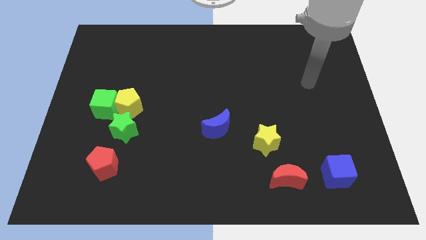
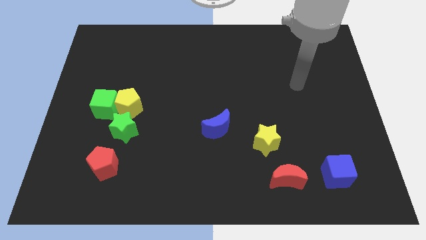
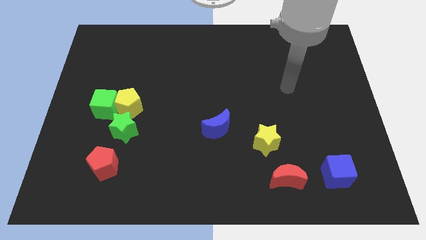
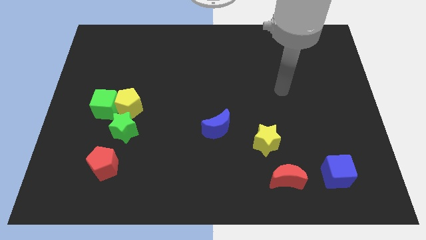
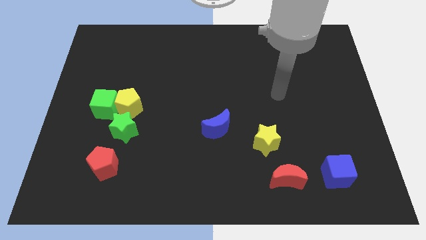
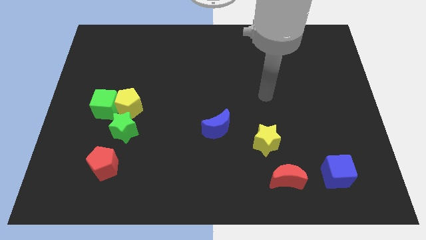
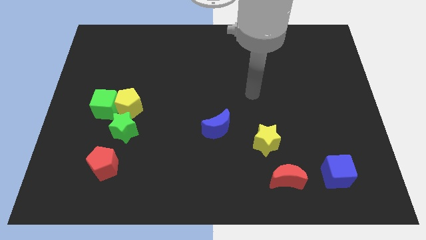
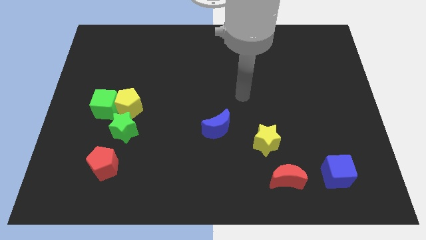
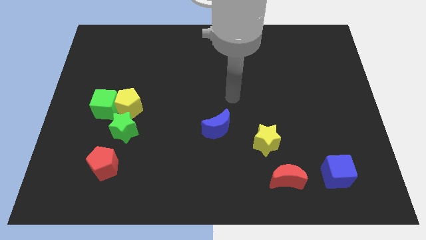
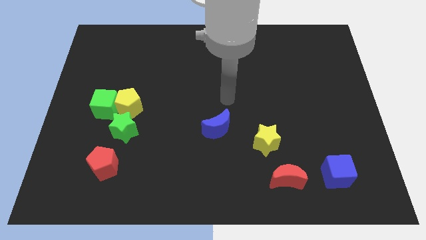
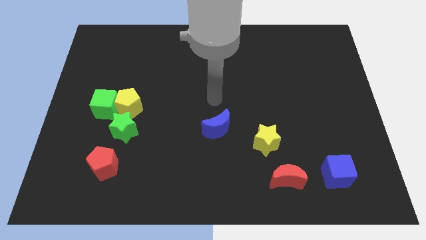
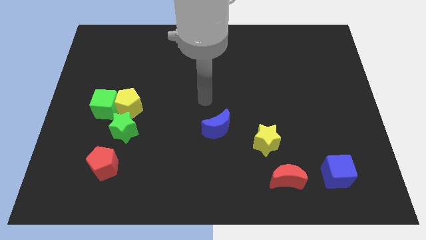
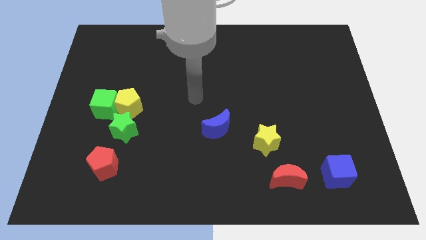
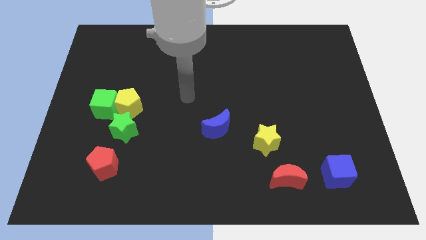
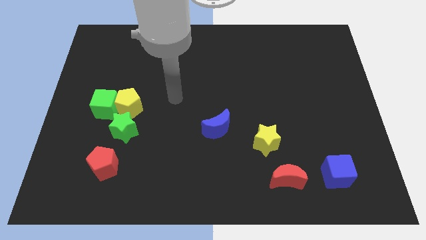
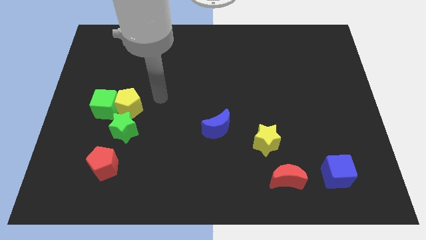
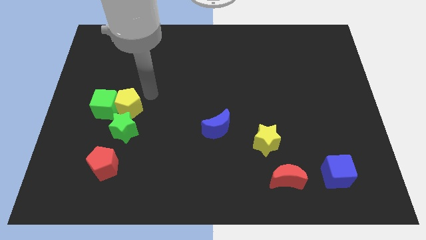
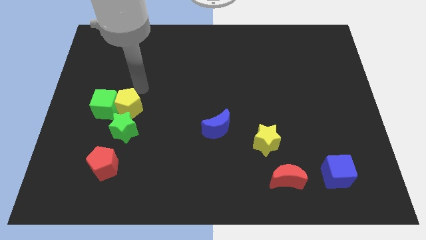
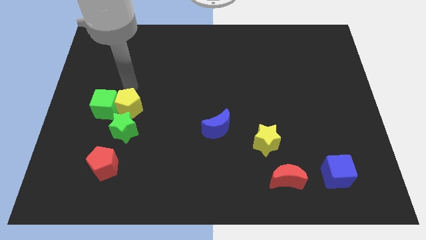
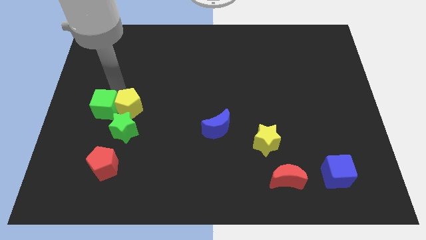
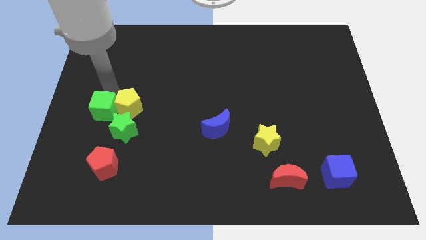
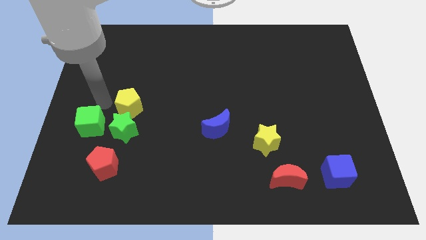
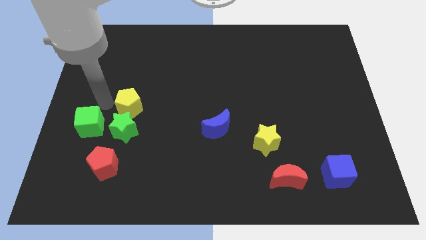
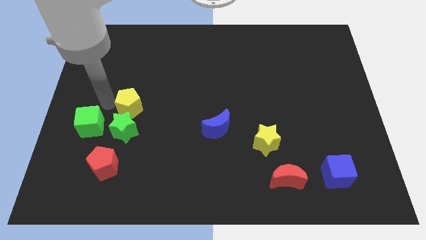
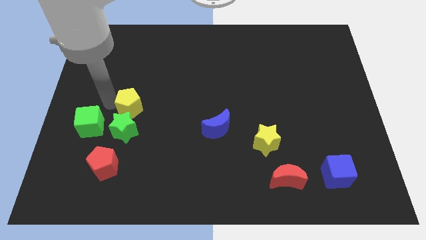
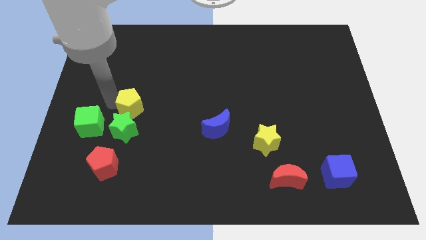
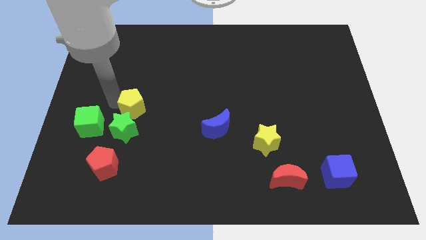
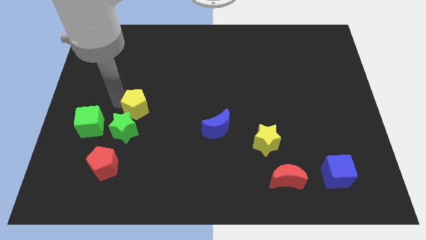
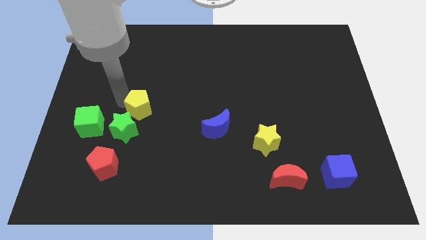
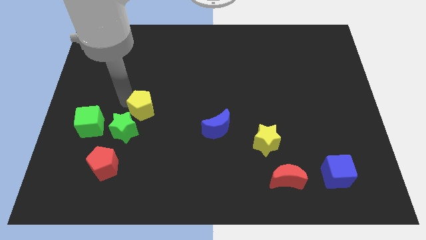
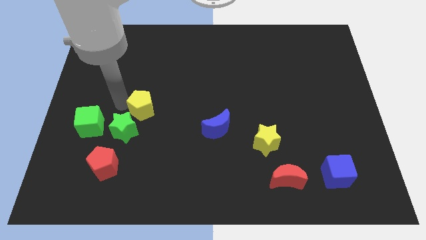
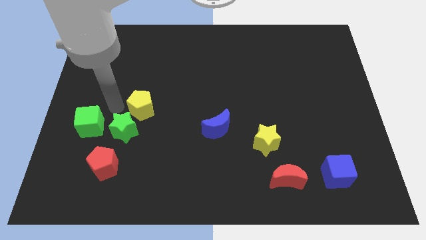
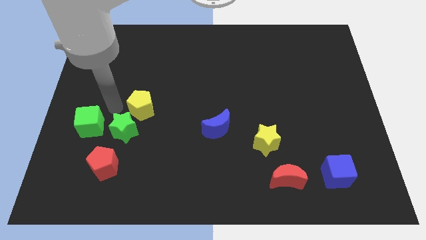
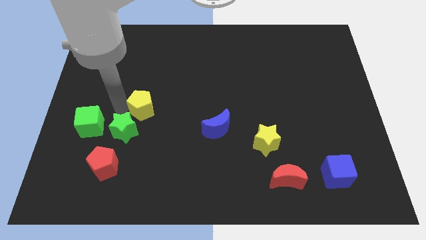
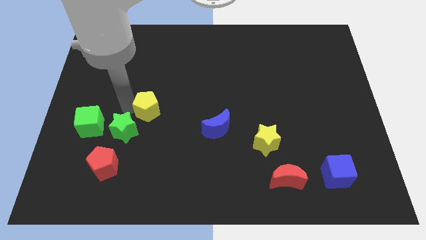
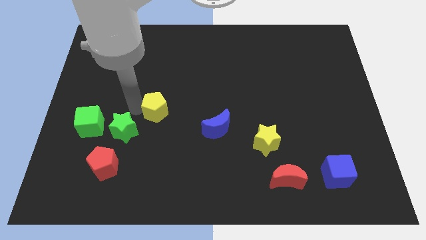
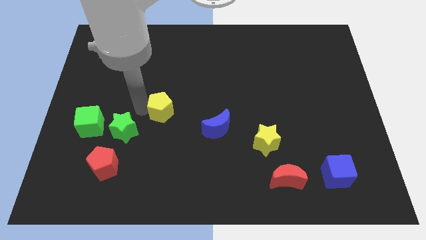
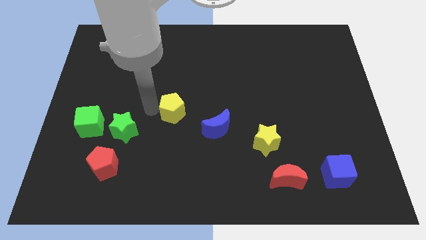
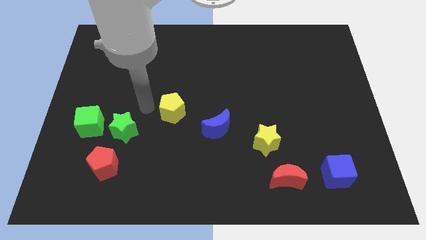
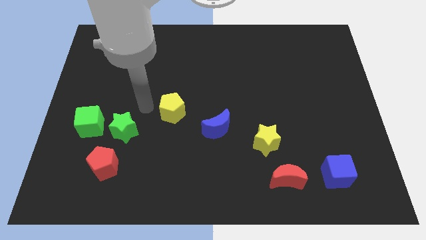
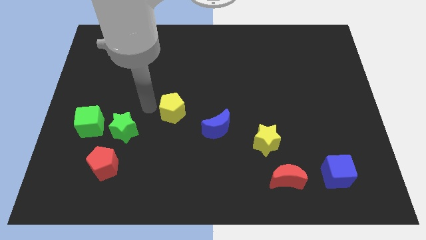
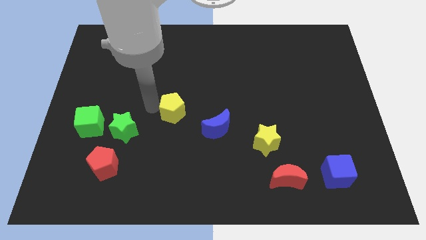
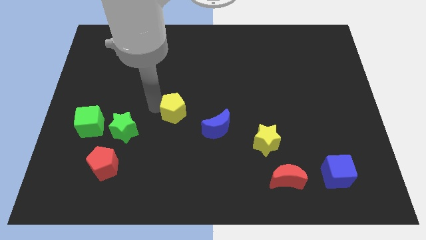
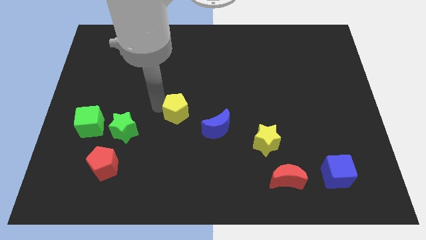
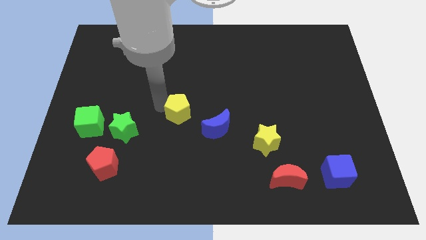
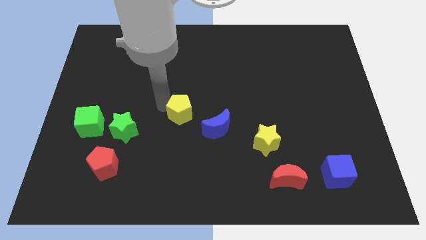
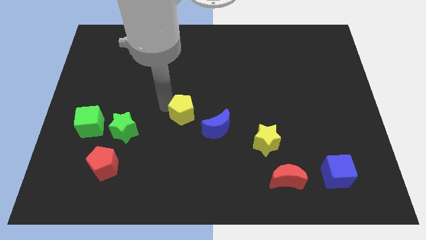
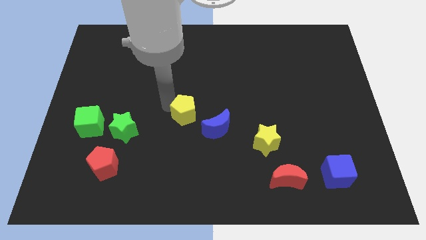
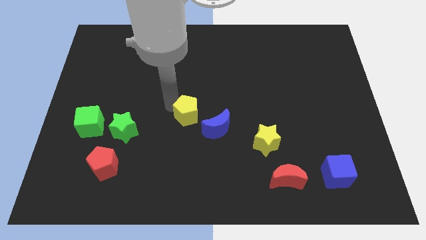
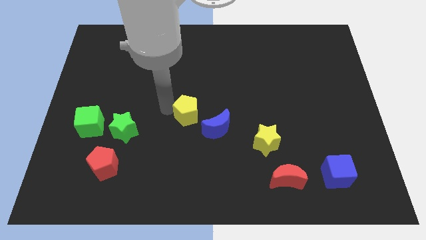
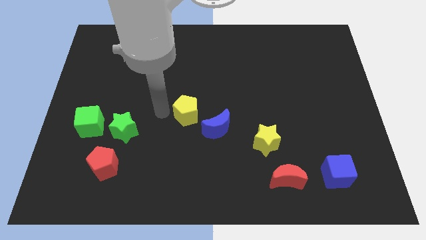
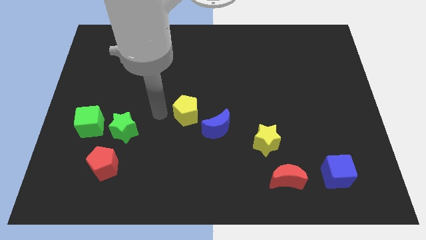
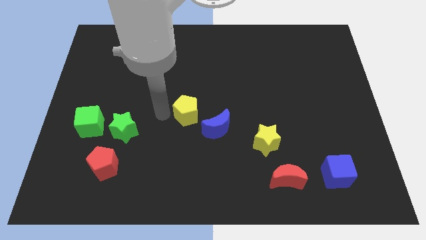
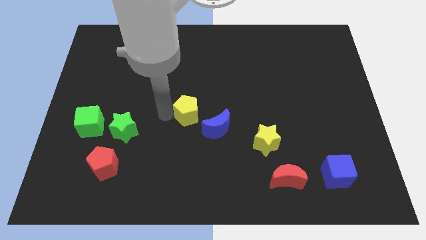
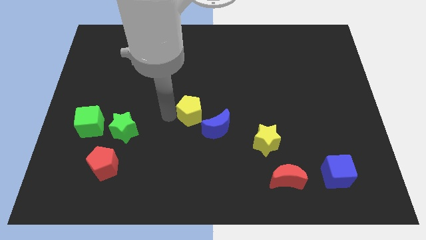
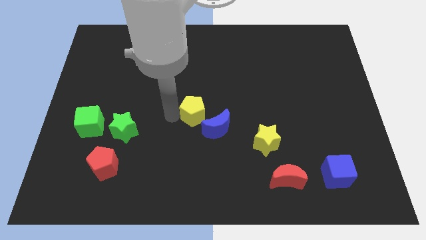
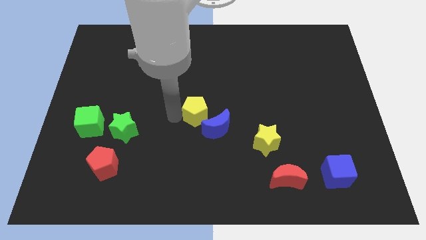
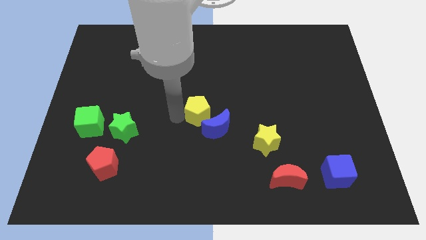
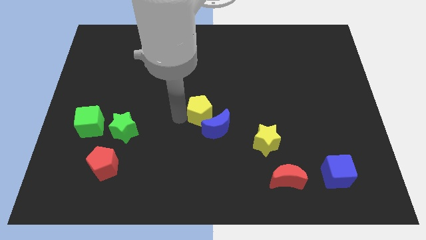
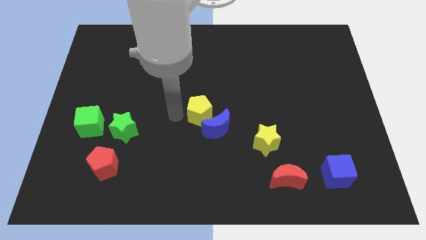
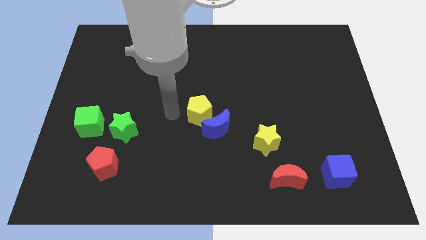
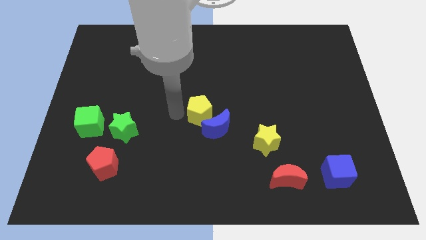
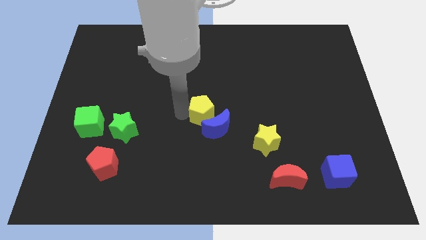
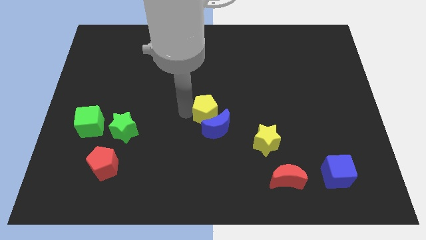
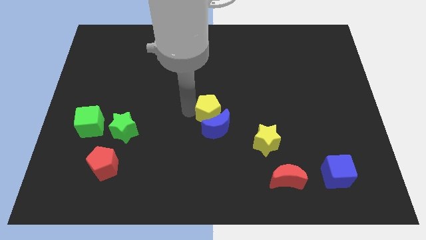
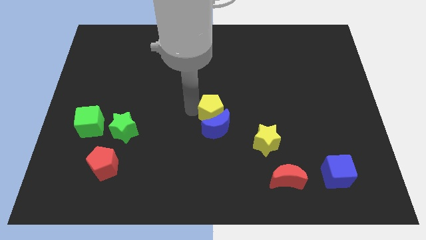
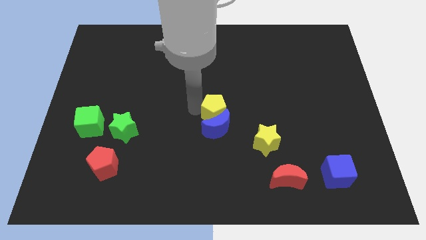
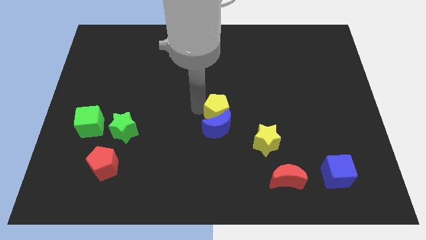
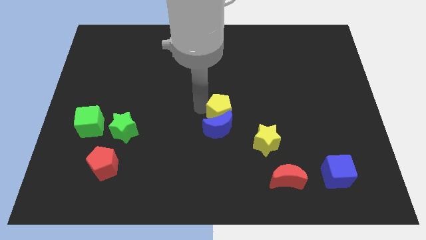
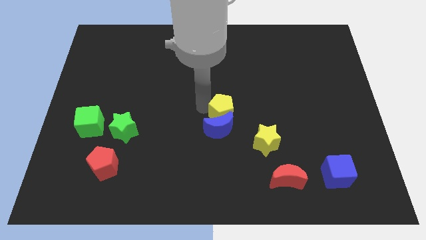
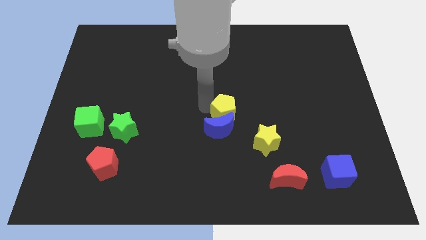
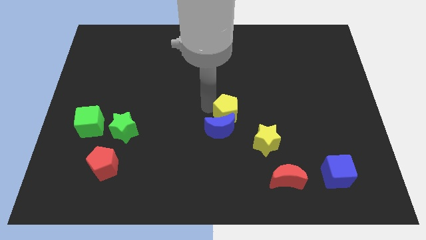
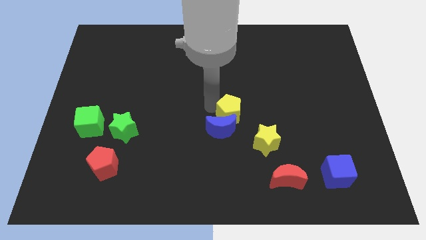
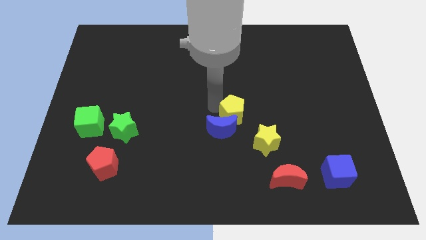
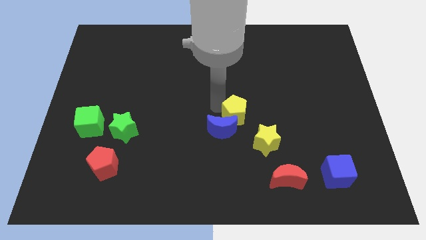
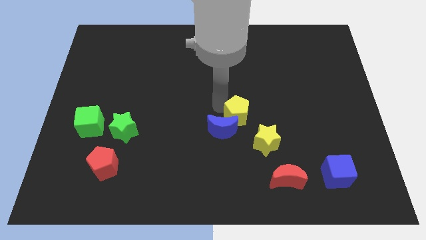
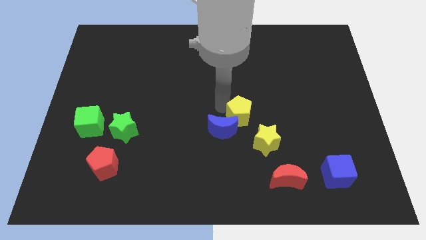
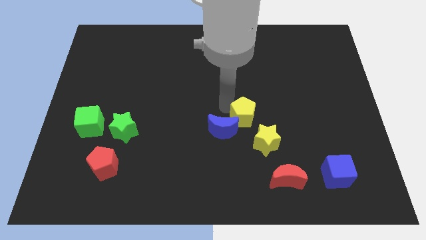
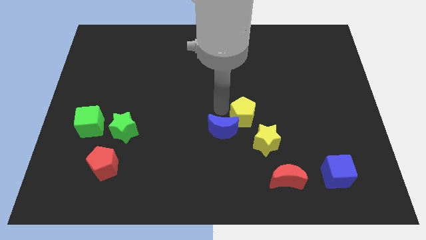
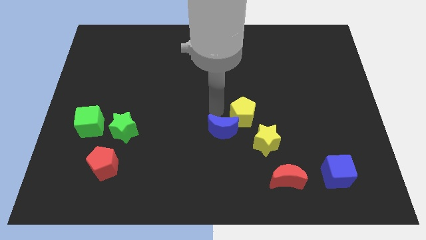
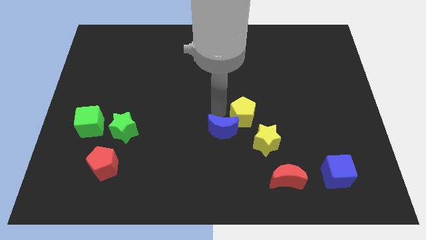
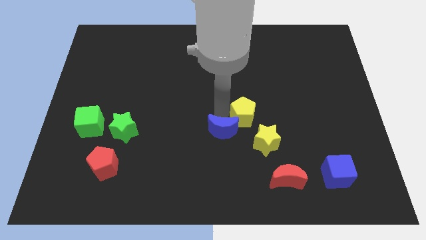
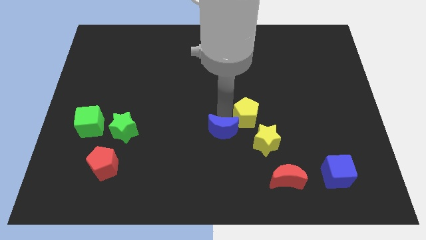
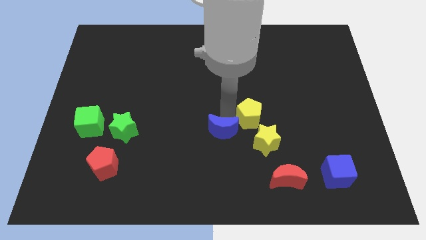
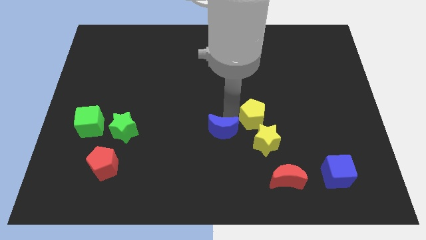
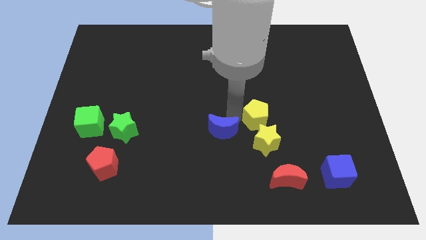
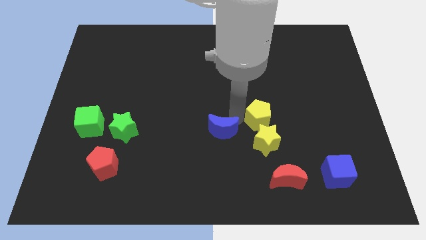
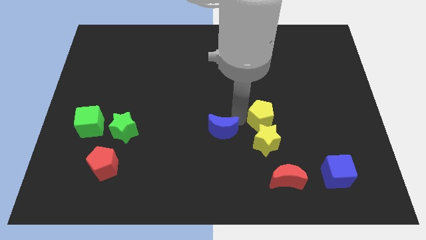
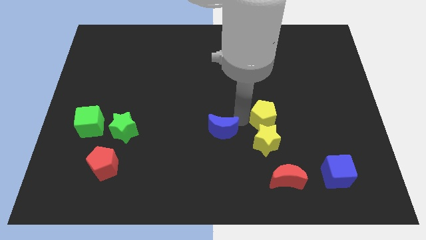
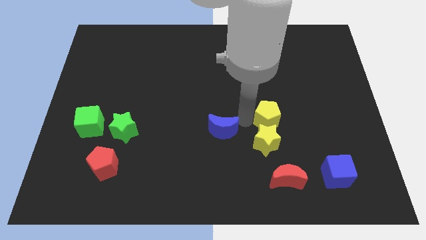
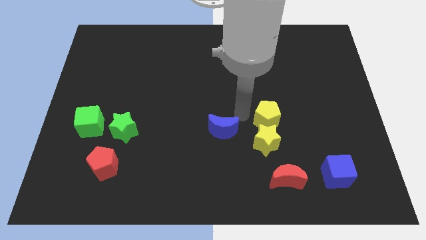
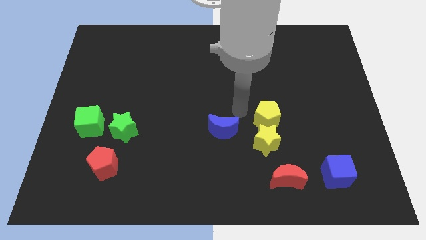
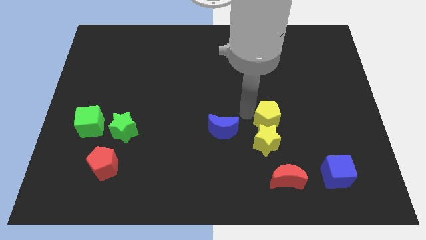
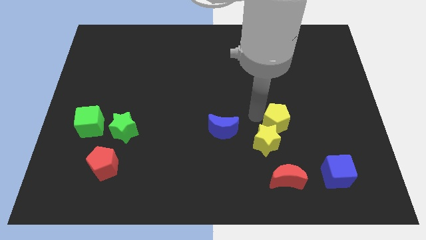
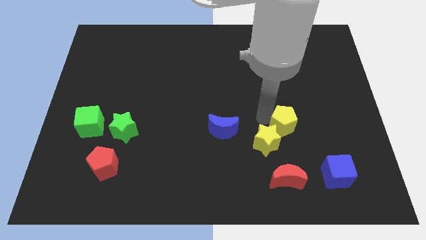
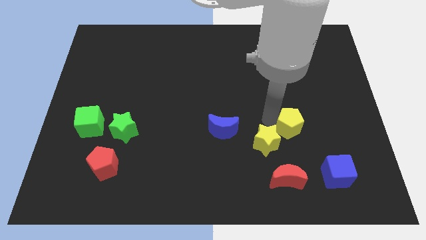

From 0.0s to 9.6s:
move the yellow pentagon just right of the yellow star
